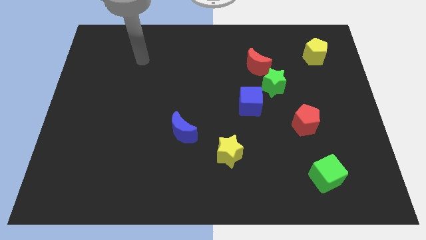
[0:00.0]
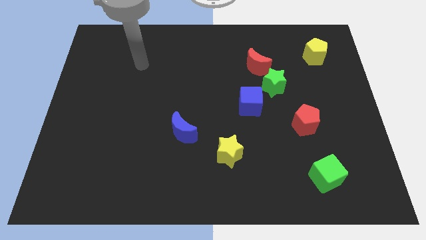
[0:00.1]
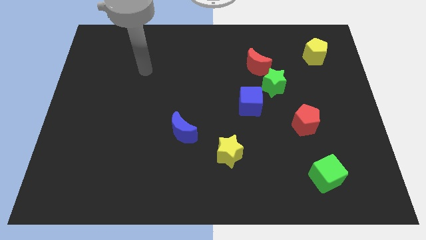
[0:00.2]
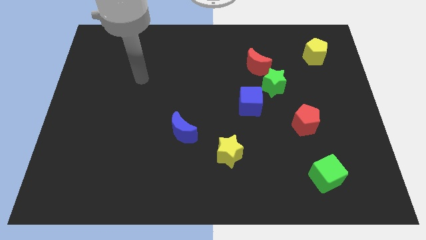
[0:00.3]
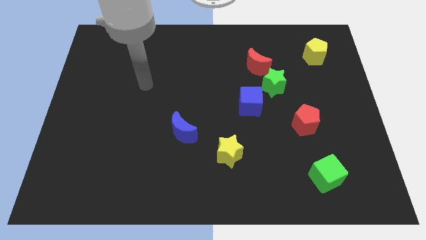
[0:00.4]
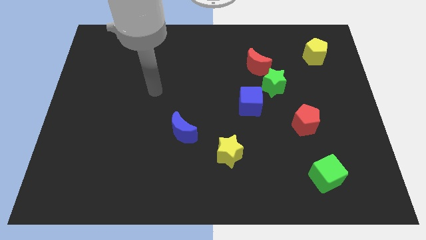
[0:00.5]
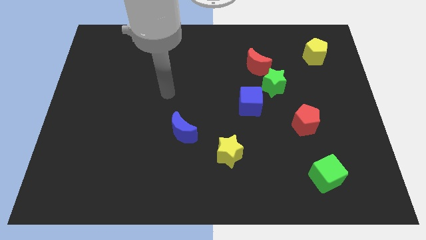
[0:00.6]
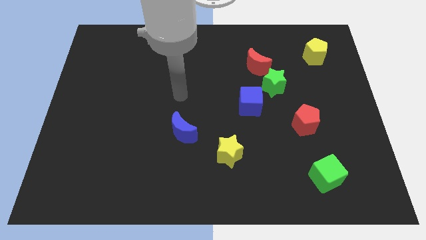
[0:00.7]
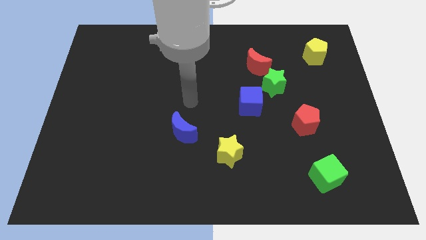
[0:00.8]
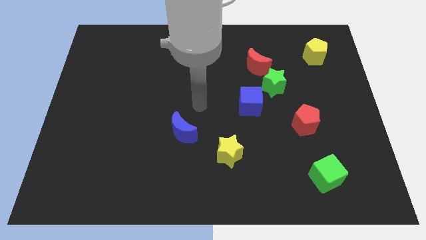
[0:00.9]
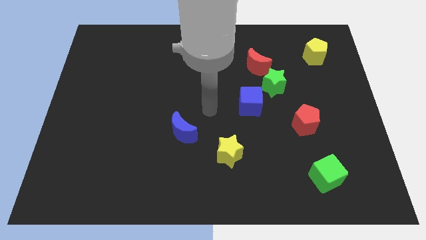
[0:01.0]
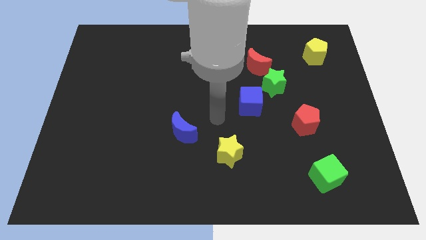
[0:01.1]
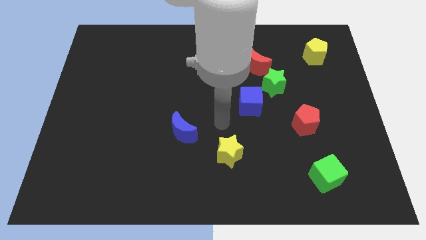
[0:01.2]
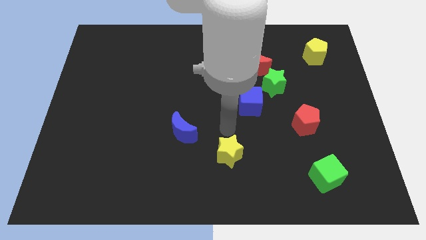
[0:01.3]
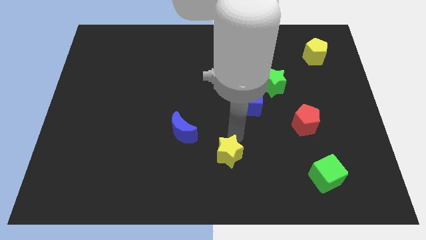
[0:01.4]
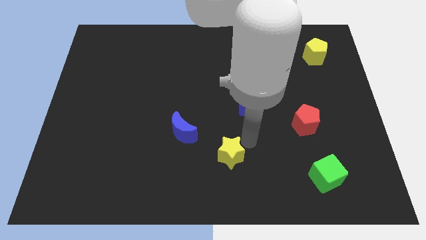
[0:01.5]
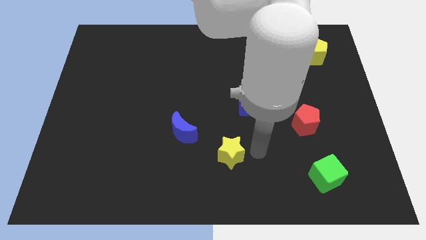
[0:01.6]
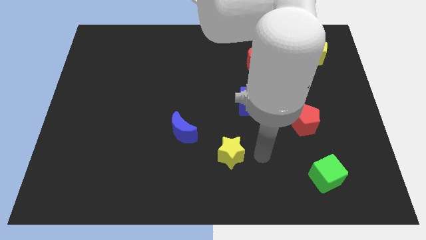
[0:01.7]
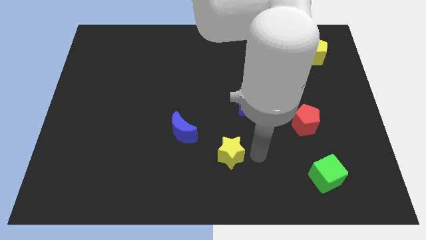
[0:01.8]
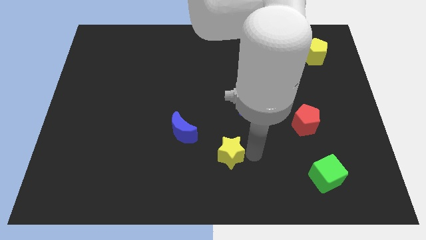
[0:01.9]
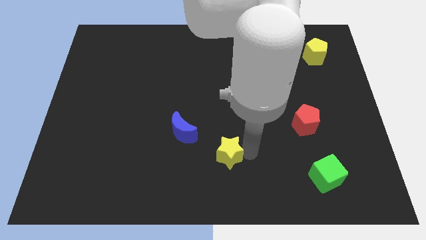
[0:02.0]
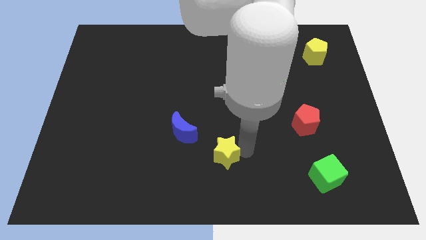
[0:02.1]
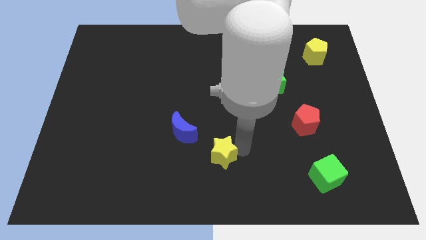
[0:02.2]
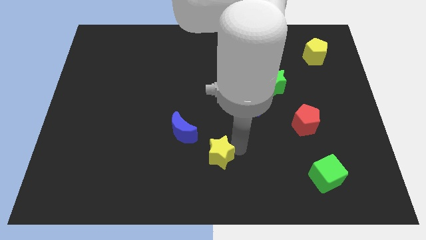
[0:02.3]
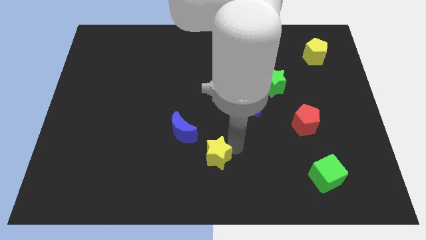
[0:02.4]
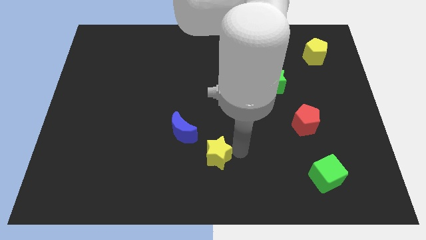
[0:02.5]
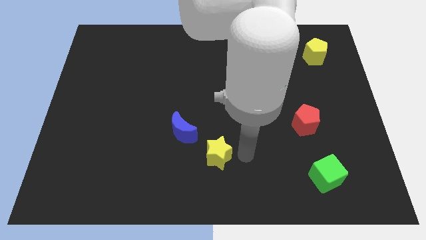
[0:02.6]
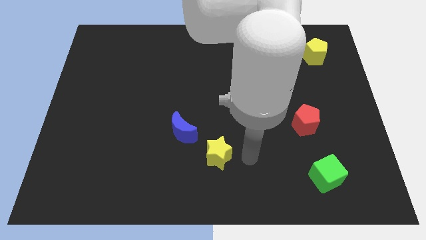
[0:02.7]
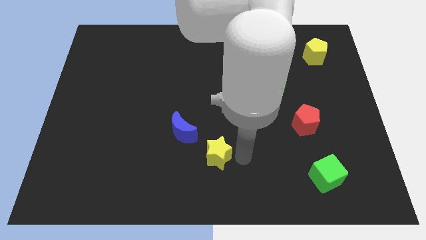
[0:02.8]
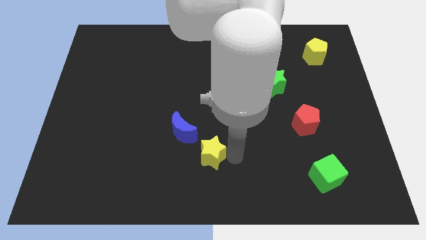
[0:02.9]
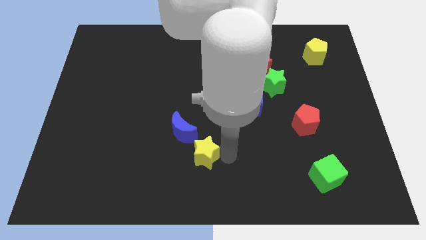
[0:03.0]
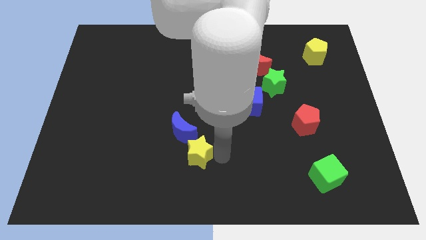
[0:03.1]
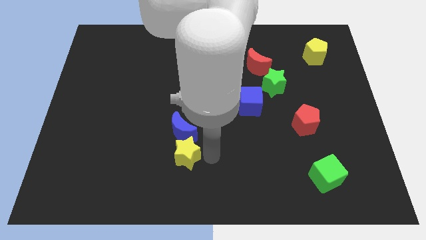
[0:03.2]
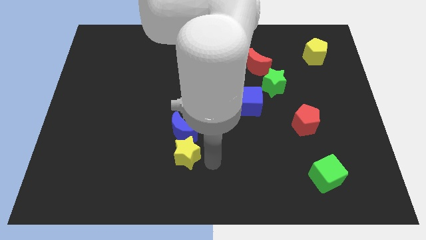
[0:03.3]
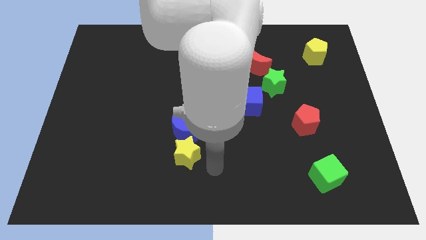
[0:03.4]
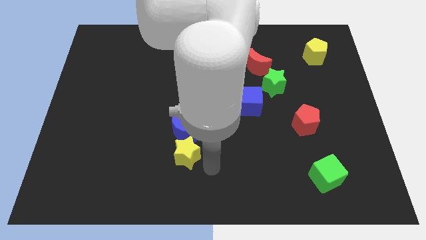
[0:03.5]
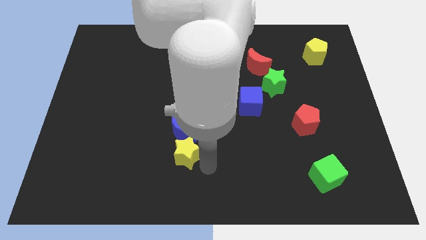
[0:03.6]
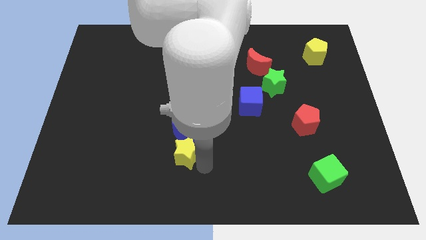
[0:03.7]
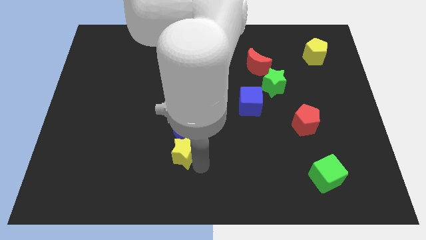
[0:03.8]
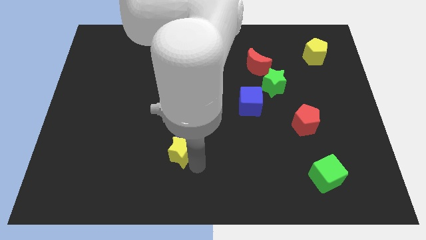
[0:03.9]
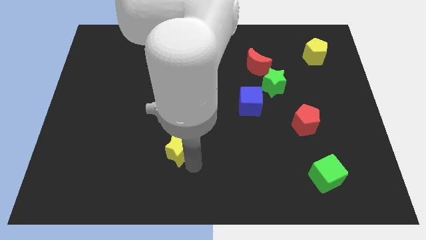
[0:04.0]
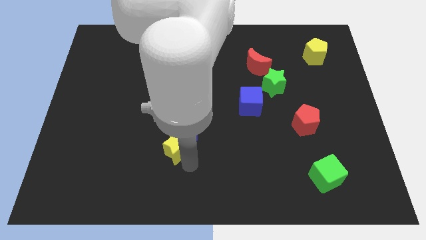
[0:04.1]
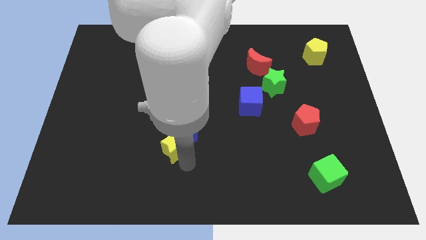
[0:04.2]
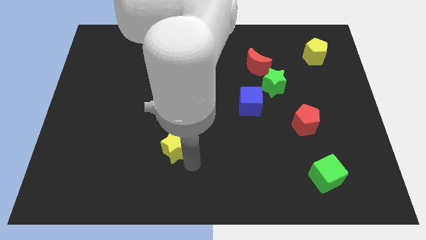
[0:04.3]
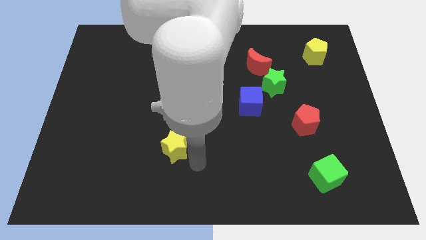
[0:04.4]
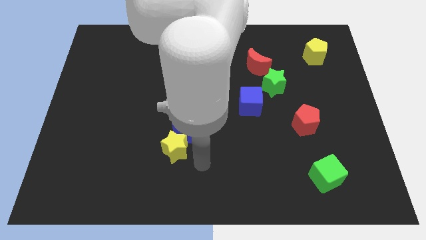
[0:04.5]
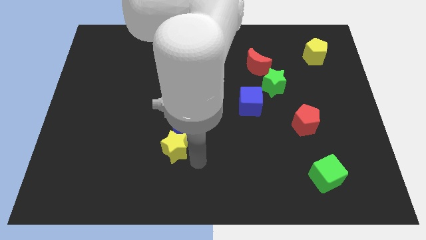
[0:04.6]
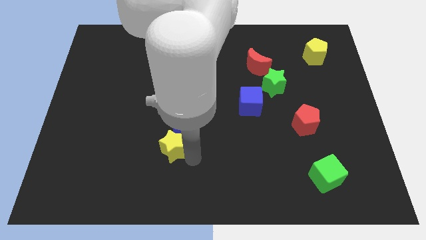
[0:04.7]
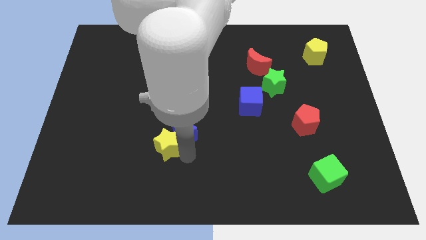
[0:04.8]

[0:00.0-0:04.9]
put the yellow star just left of the blue moon

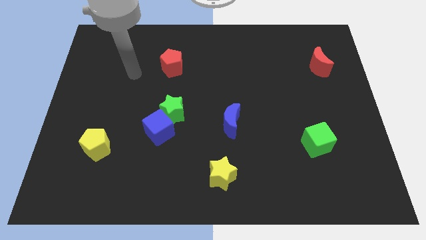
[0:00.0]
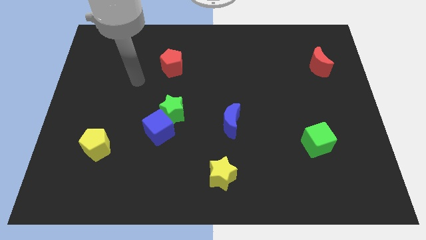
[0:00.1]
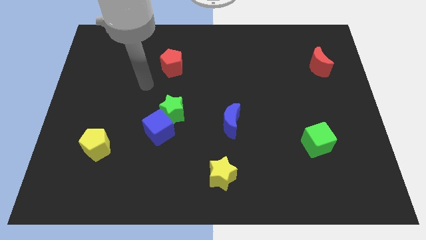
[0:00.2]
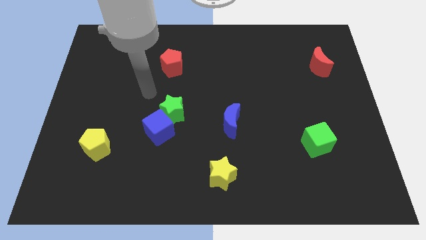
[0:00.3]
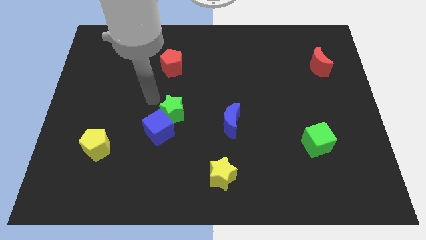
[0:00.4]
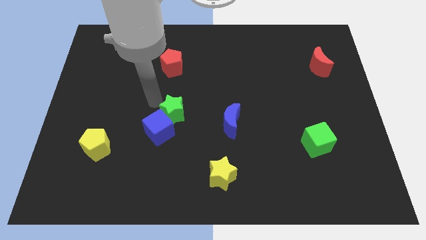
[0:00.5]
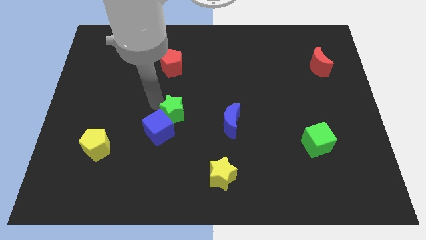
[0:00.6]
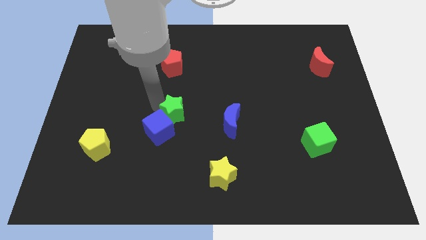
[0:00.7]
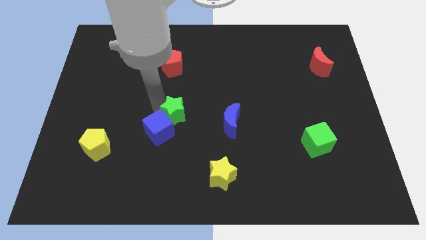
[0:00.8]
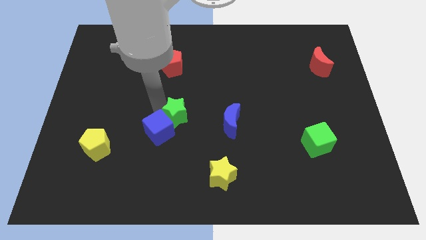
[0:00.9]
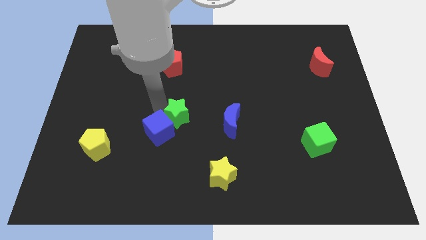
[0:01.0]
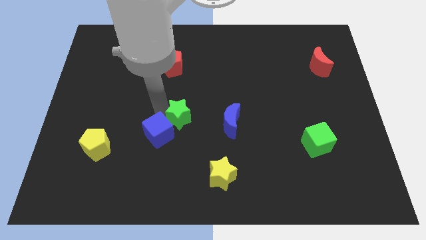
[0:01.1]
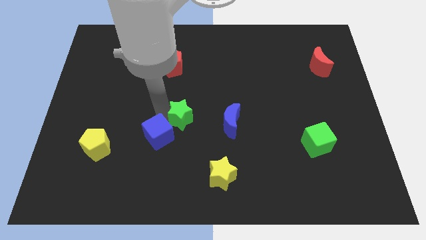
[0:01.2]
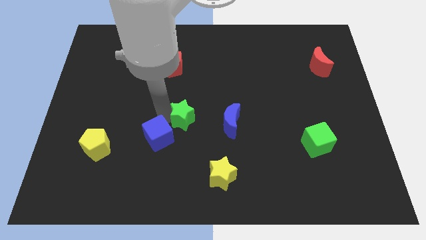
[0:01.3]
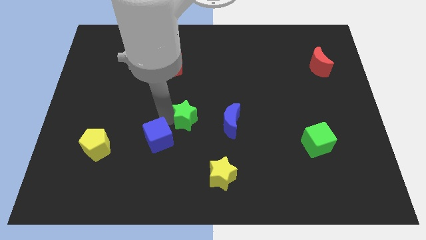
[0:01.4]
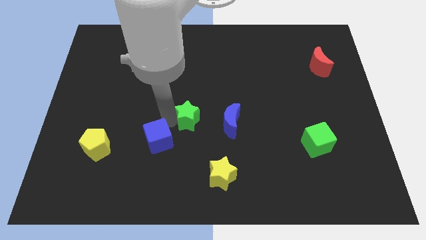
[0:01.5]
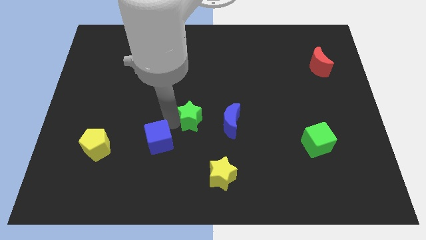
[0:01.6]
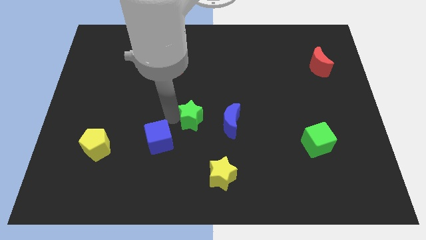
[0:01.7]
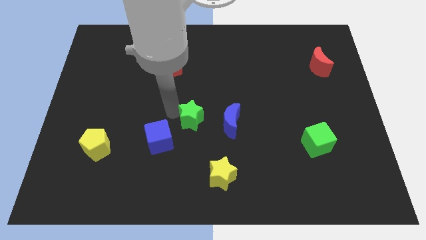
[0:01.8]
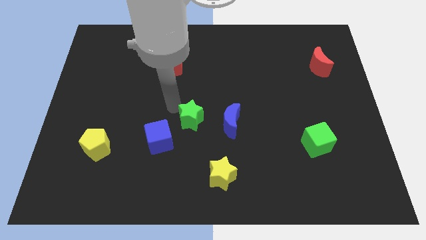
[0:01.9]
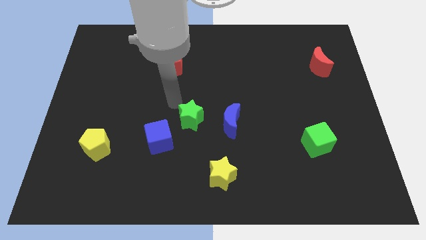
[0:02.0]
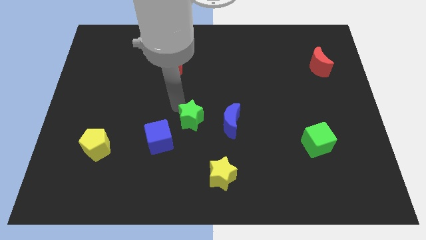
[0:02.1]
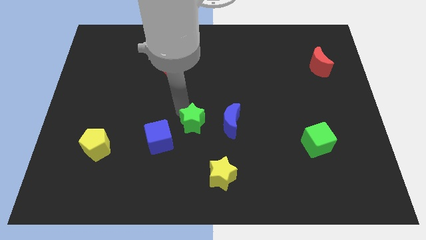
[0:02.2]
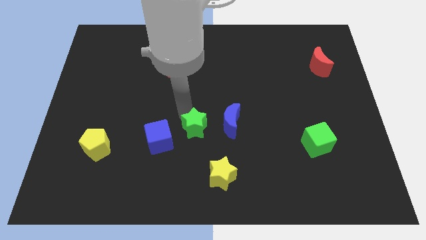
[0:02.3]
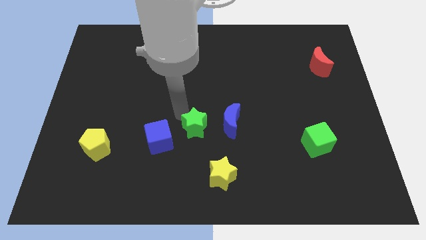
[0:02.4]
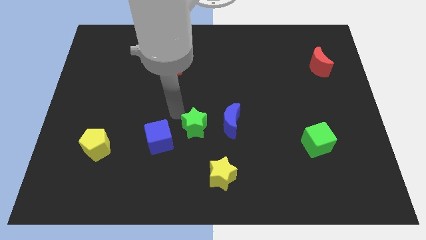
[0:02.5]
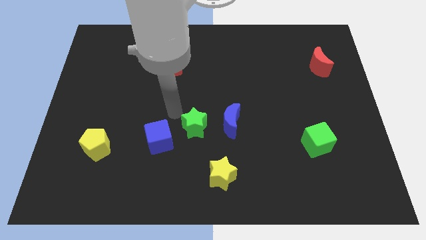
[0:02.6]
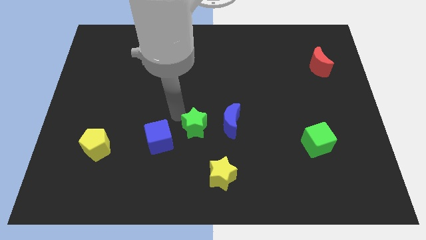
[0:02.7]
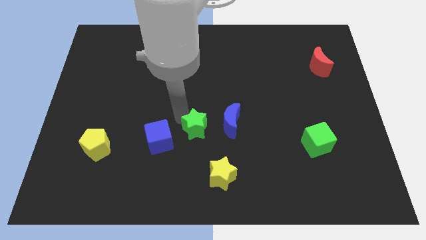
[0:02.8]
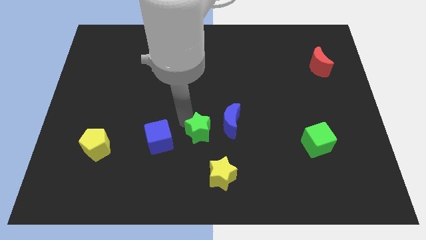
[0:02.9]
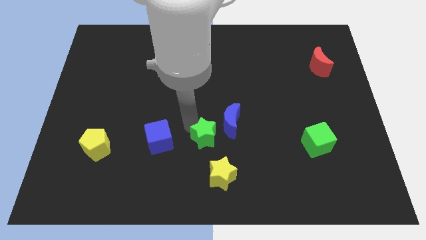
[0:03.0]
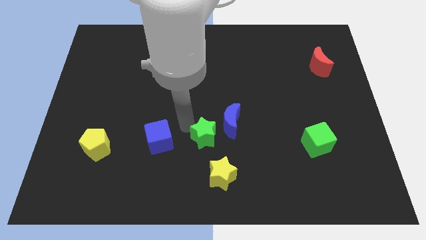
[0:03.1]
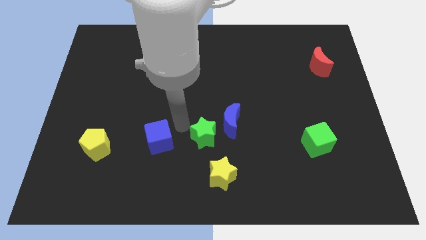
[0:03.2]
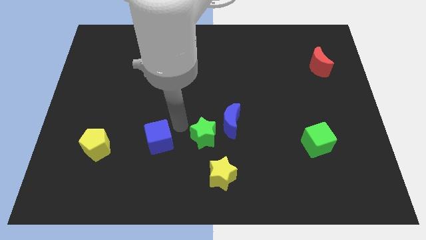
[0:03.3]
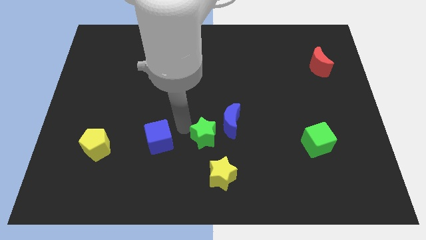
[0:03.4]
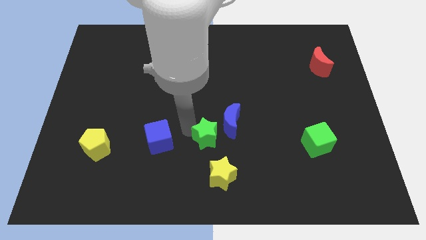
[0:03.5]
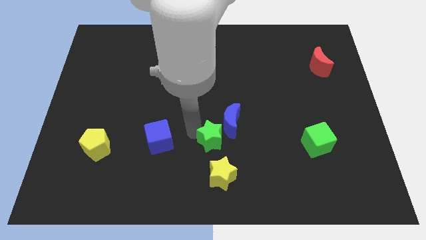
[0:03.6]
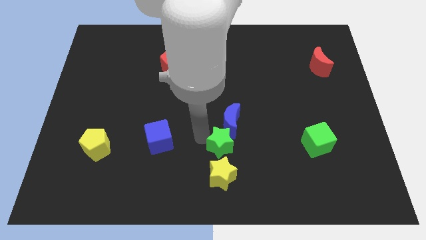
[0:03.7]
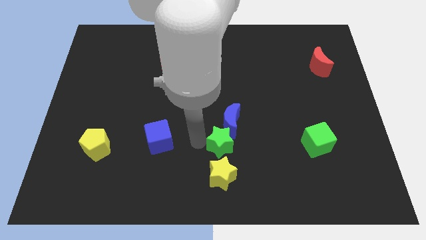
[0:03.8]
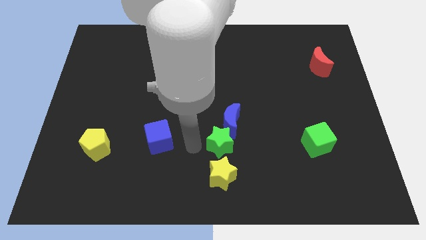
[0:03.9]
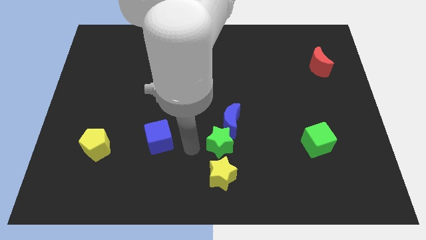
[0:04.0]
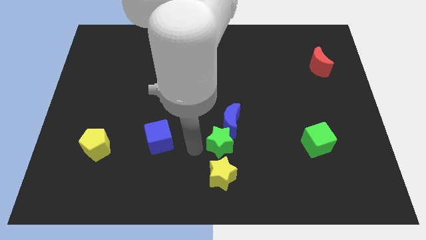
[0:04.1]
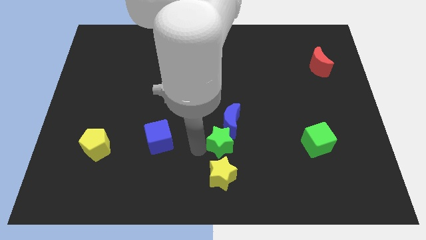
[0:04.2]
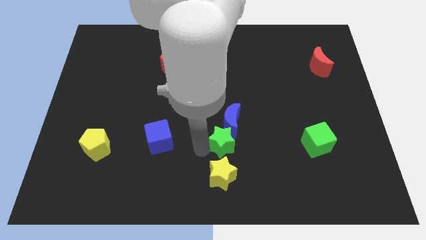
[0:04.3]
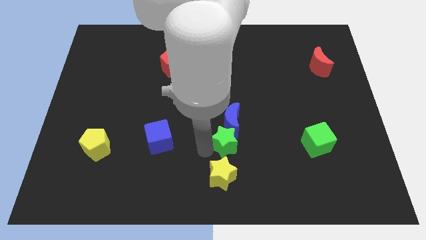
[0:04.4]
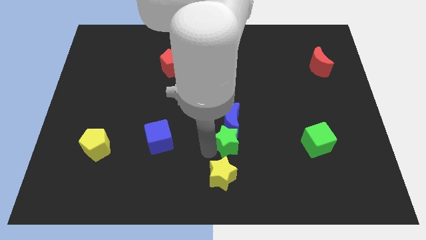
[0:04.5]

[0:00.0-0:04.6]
move the green star to the bottom right side of the blue moon
